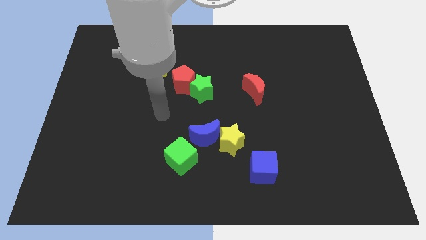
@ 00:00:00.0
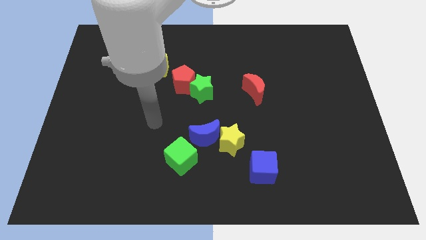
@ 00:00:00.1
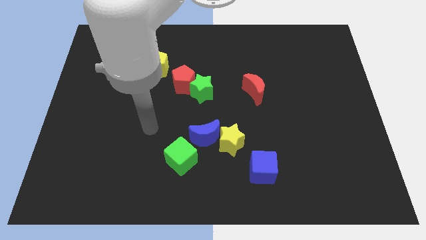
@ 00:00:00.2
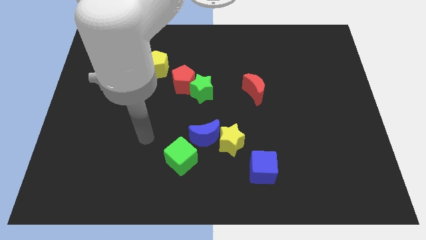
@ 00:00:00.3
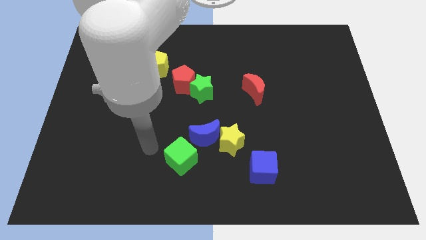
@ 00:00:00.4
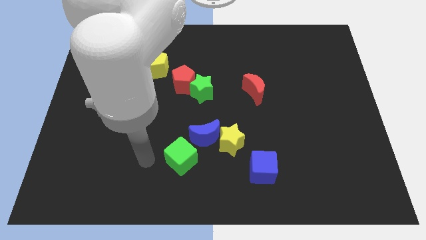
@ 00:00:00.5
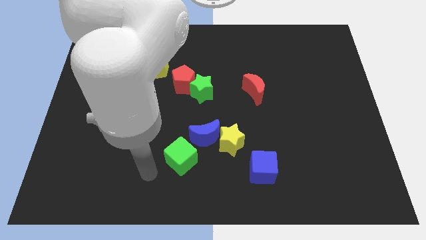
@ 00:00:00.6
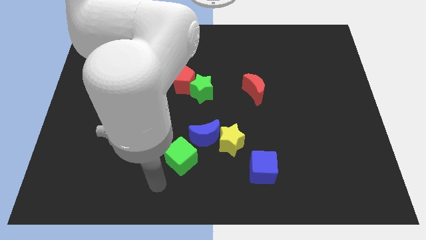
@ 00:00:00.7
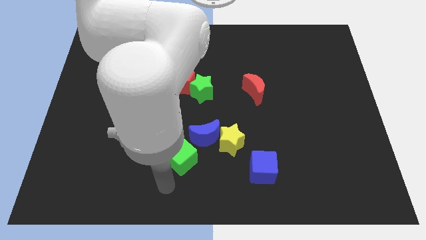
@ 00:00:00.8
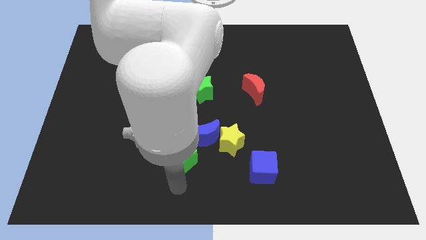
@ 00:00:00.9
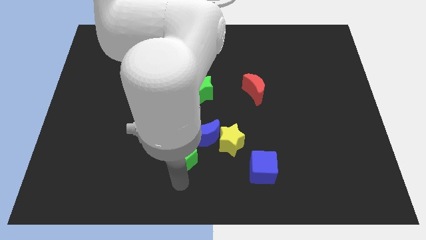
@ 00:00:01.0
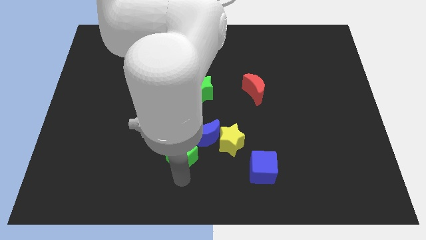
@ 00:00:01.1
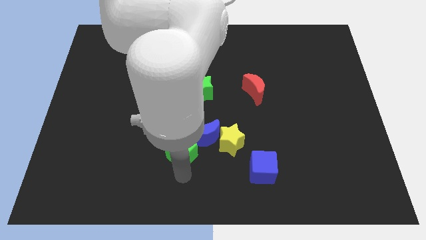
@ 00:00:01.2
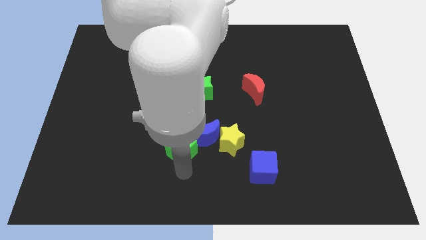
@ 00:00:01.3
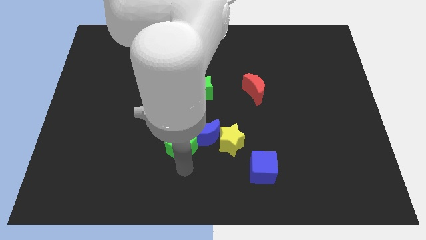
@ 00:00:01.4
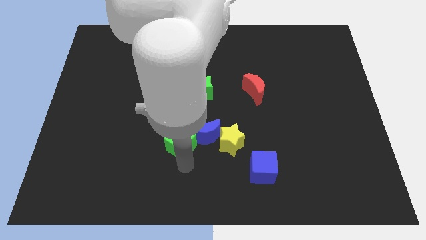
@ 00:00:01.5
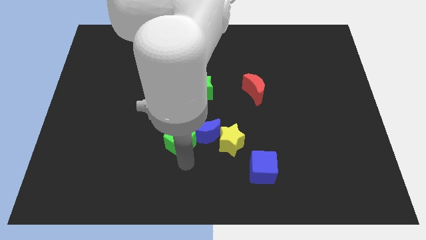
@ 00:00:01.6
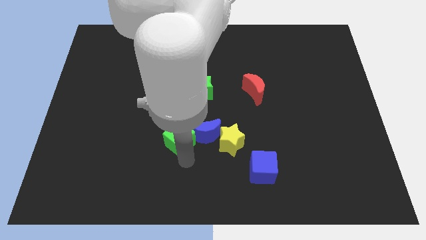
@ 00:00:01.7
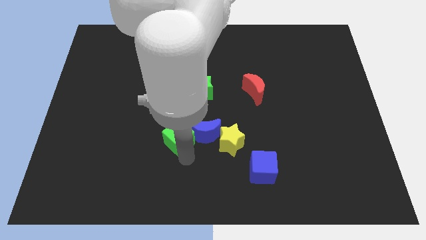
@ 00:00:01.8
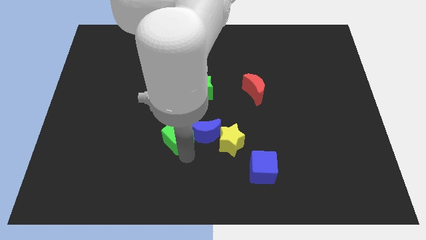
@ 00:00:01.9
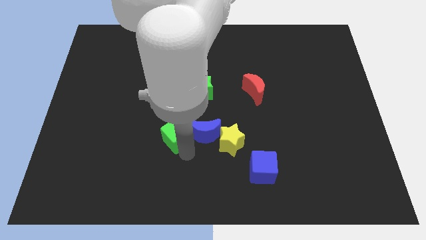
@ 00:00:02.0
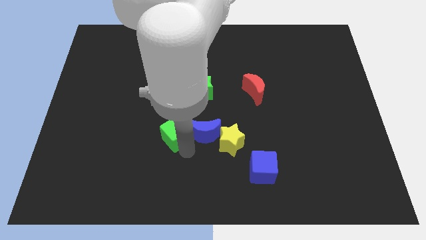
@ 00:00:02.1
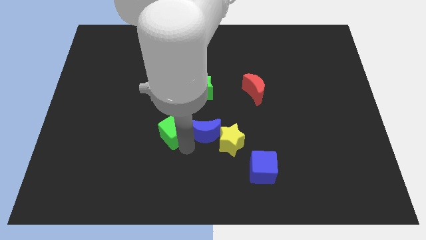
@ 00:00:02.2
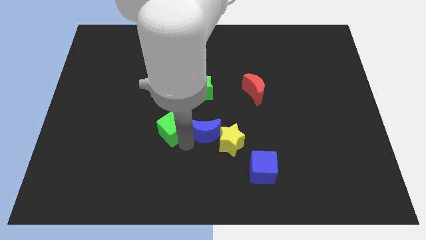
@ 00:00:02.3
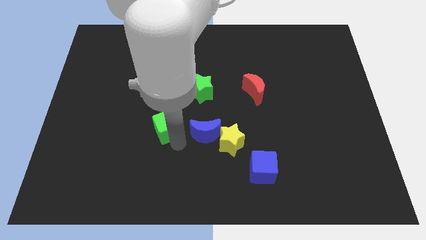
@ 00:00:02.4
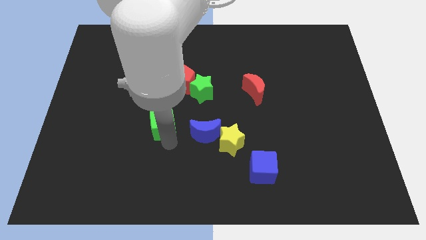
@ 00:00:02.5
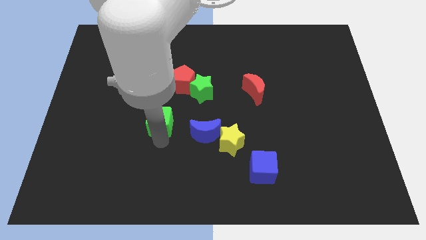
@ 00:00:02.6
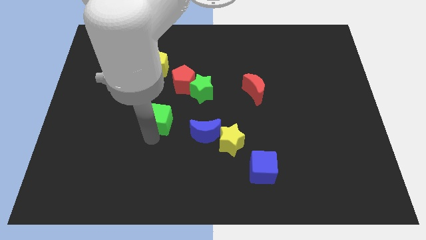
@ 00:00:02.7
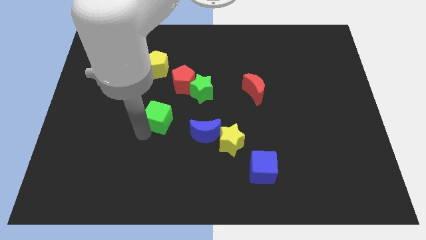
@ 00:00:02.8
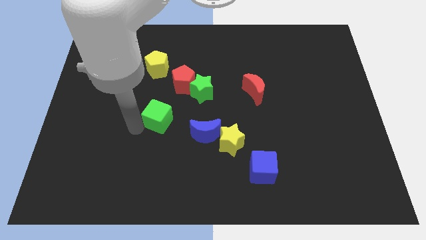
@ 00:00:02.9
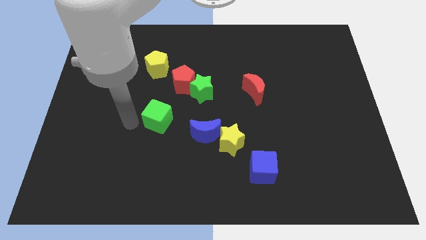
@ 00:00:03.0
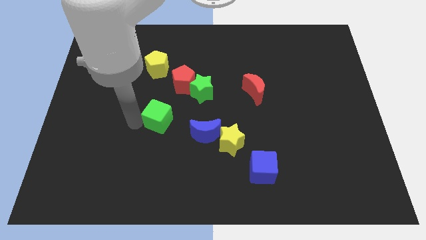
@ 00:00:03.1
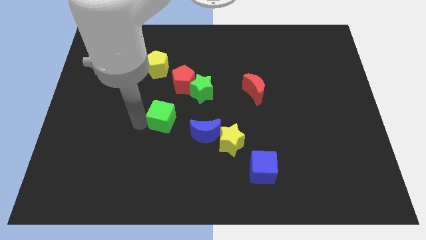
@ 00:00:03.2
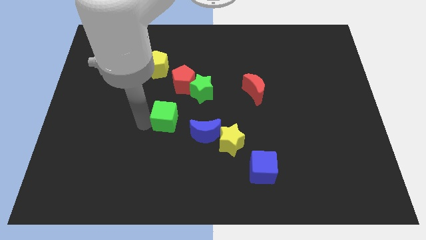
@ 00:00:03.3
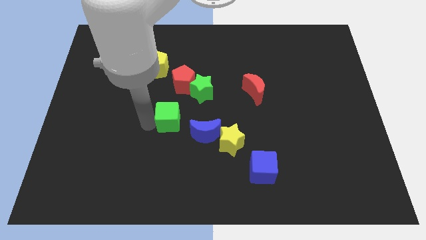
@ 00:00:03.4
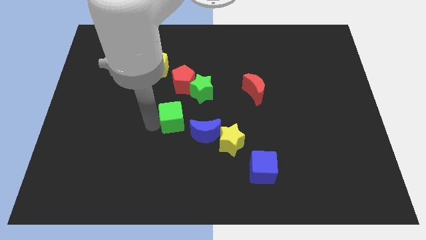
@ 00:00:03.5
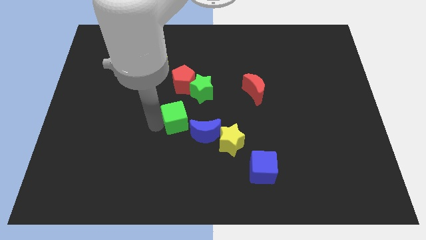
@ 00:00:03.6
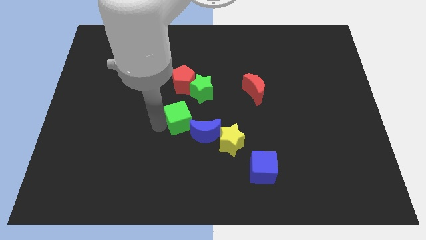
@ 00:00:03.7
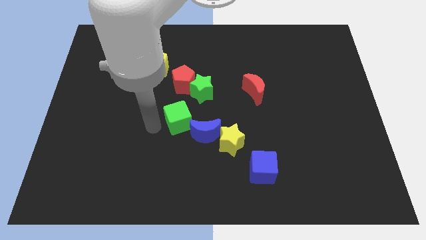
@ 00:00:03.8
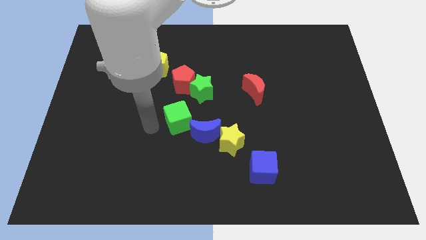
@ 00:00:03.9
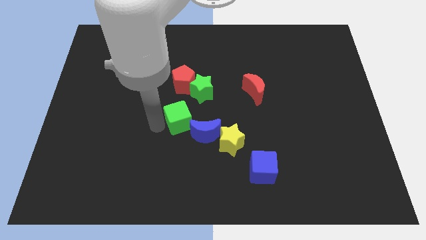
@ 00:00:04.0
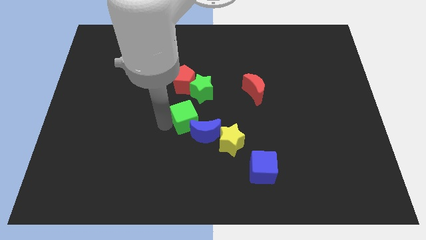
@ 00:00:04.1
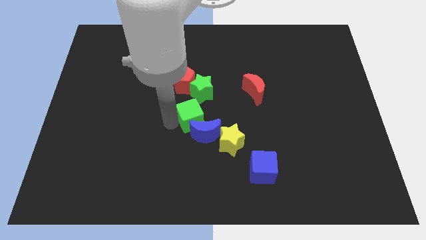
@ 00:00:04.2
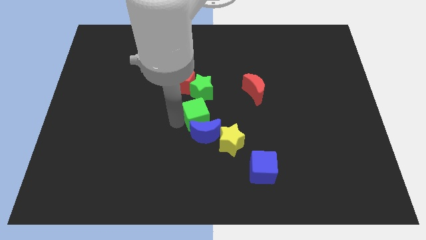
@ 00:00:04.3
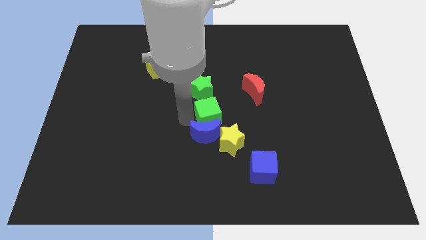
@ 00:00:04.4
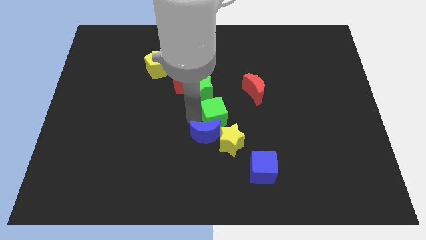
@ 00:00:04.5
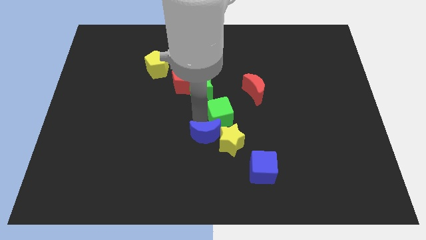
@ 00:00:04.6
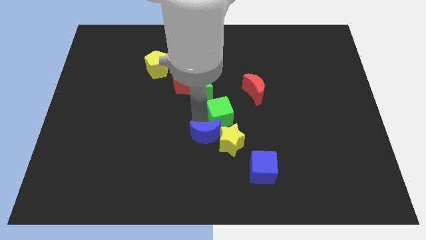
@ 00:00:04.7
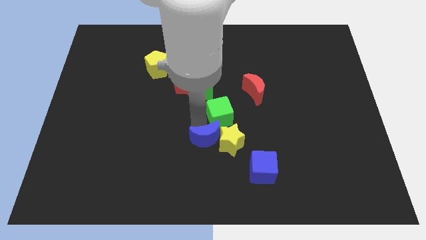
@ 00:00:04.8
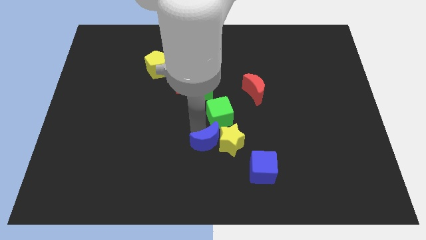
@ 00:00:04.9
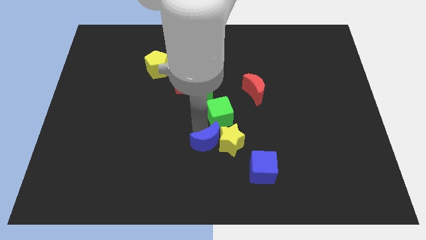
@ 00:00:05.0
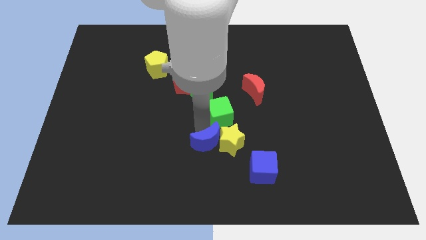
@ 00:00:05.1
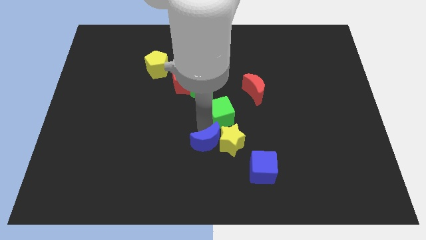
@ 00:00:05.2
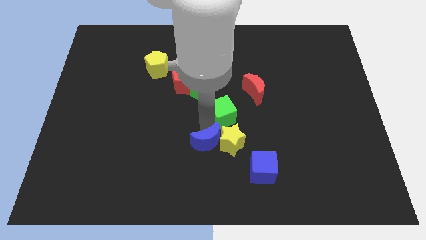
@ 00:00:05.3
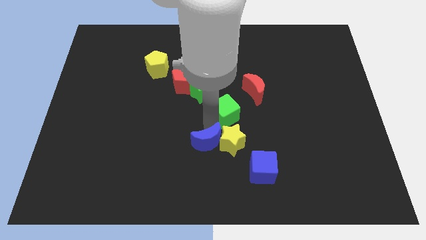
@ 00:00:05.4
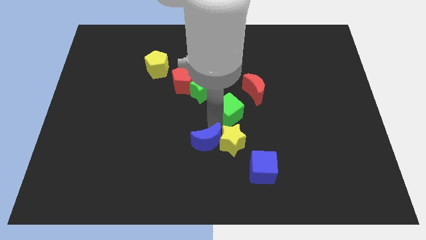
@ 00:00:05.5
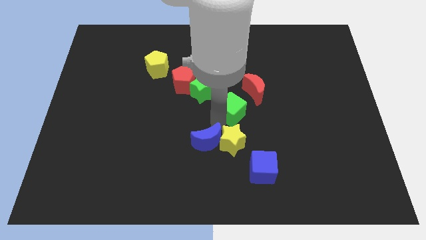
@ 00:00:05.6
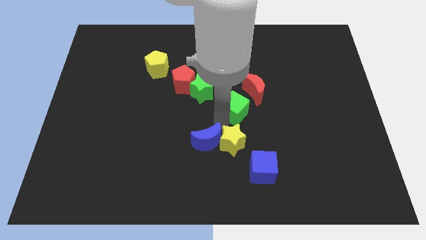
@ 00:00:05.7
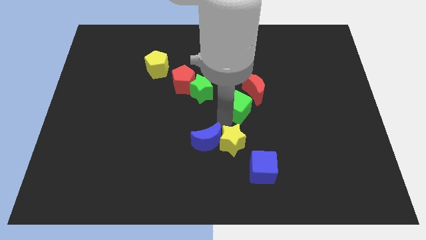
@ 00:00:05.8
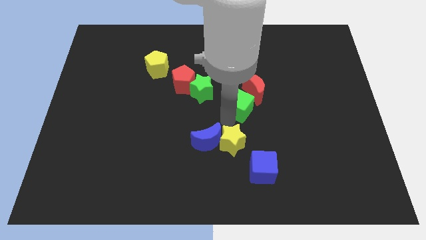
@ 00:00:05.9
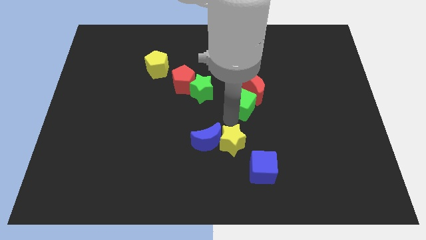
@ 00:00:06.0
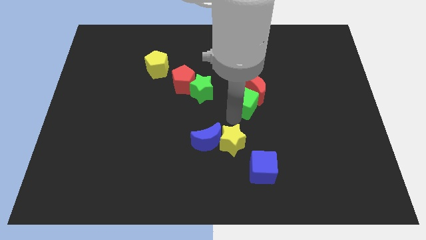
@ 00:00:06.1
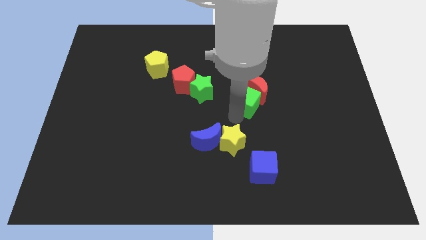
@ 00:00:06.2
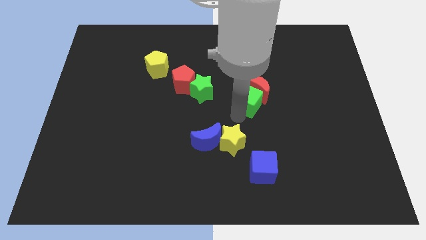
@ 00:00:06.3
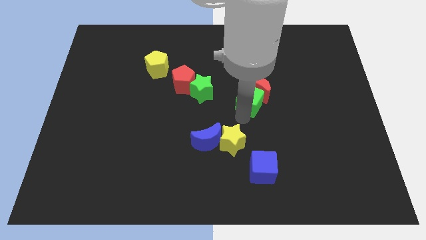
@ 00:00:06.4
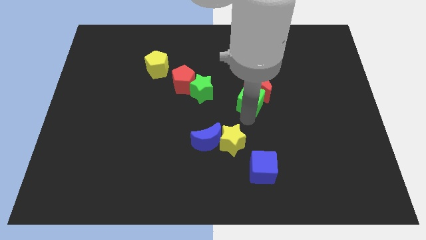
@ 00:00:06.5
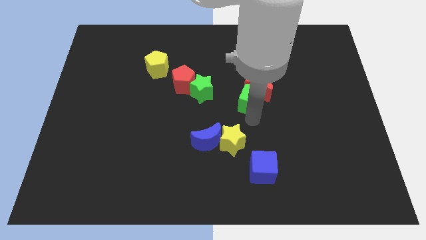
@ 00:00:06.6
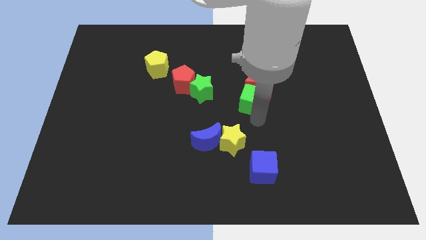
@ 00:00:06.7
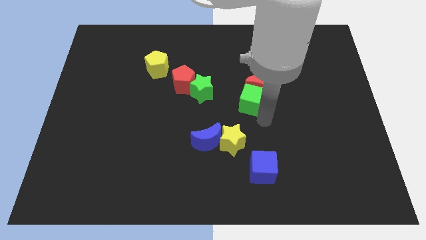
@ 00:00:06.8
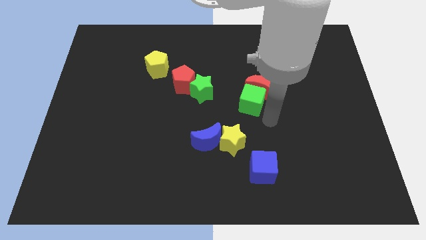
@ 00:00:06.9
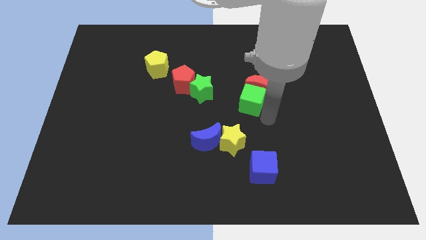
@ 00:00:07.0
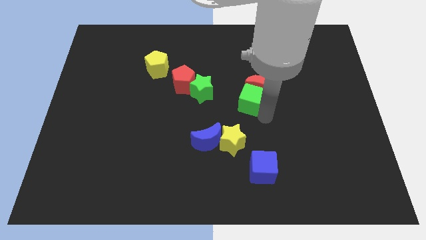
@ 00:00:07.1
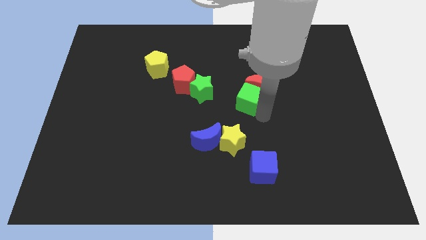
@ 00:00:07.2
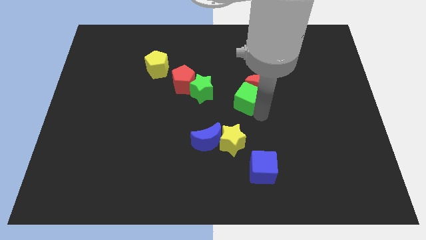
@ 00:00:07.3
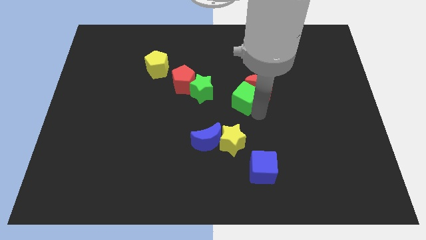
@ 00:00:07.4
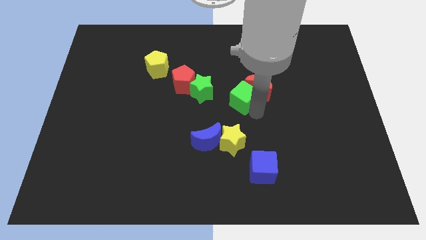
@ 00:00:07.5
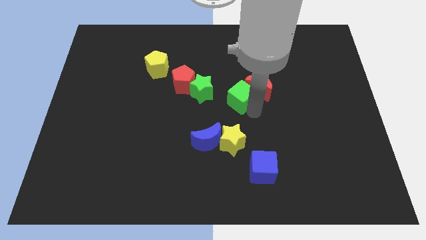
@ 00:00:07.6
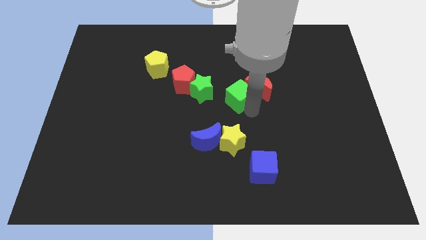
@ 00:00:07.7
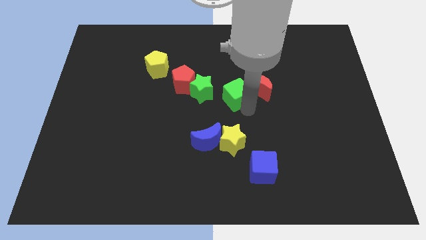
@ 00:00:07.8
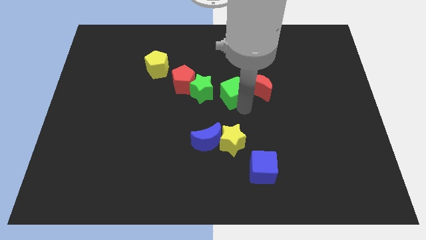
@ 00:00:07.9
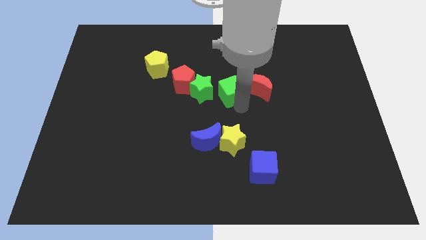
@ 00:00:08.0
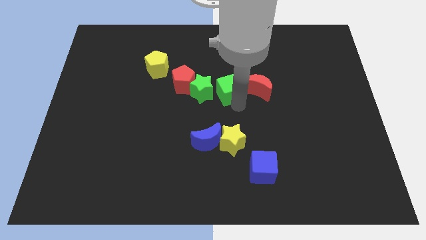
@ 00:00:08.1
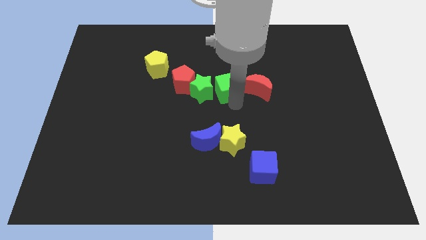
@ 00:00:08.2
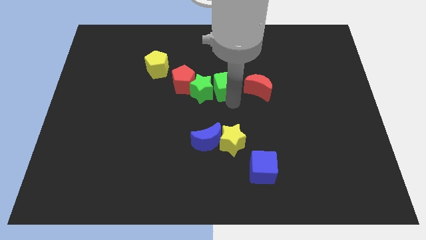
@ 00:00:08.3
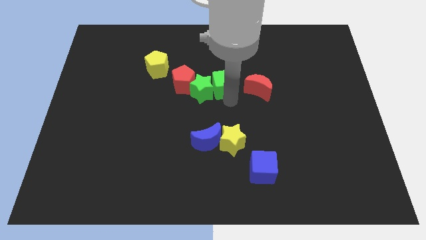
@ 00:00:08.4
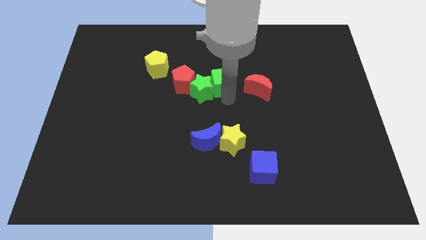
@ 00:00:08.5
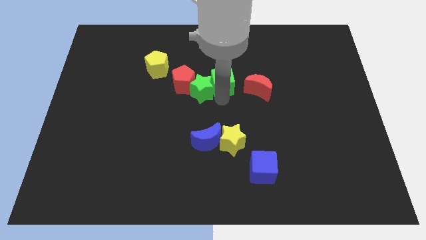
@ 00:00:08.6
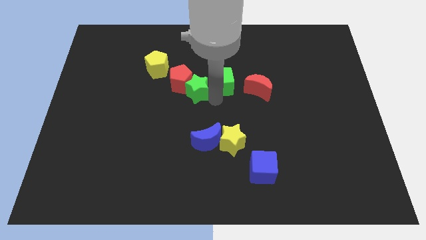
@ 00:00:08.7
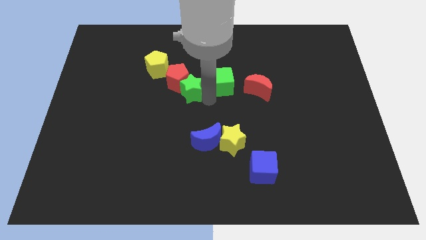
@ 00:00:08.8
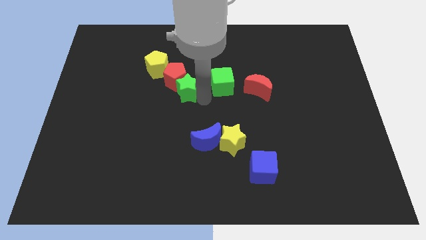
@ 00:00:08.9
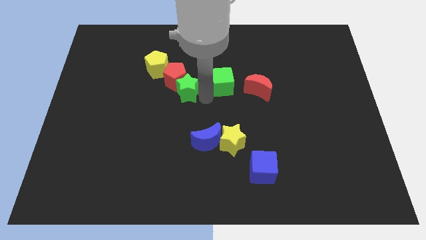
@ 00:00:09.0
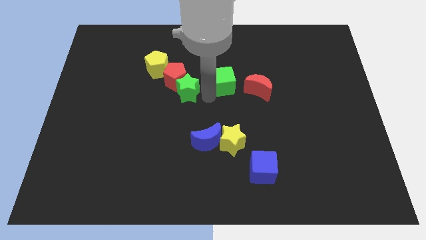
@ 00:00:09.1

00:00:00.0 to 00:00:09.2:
push the green cube to the top left side of the red moon
